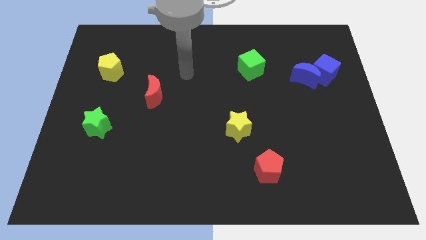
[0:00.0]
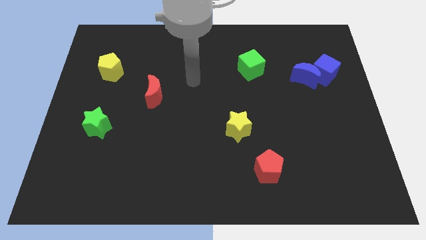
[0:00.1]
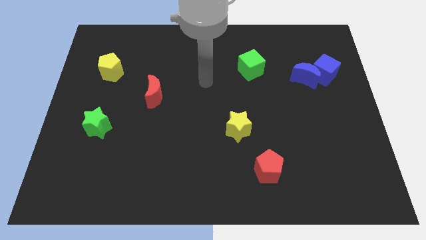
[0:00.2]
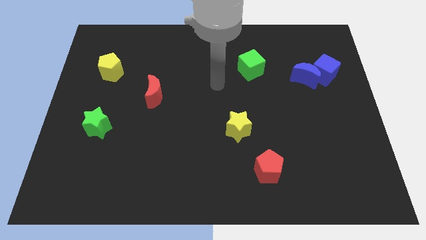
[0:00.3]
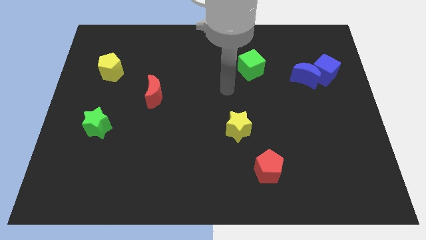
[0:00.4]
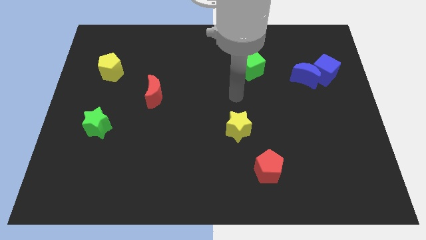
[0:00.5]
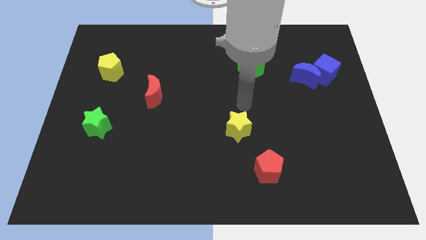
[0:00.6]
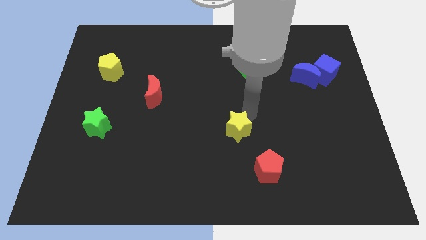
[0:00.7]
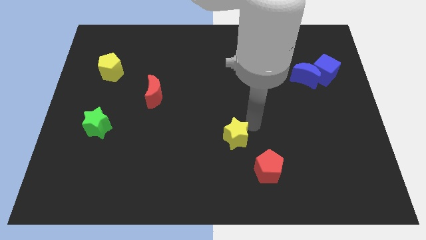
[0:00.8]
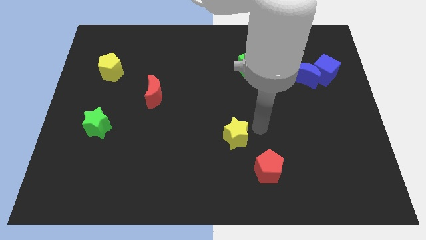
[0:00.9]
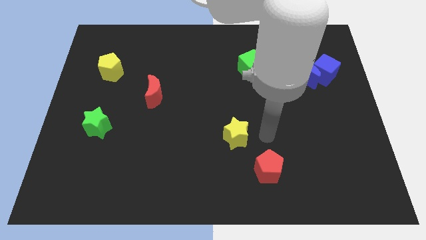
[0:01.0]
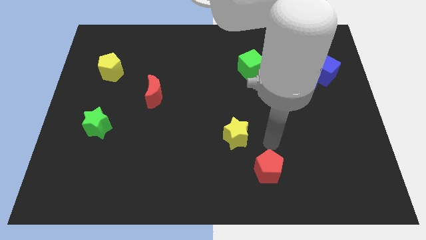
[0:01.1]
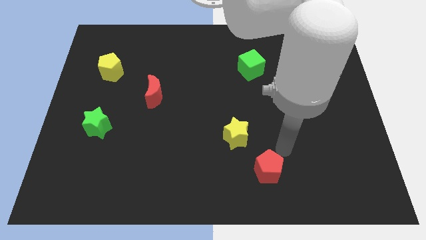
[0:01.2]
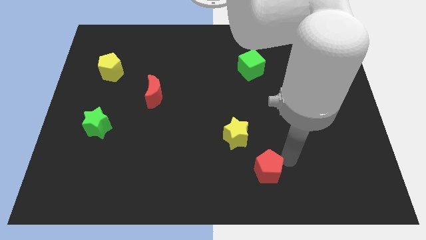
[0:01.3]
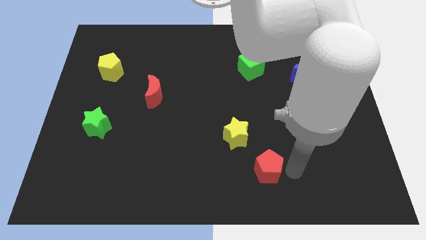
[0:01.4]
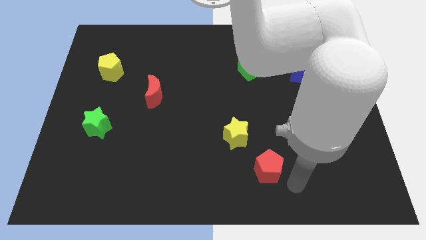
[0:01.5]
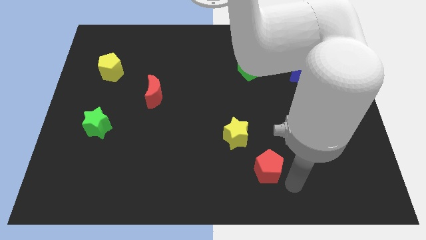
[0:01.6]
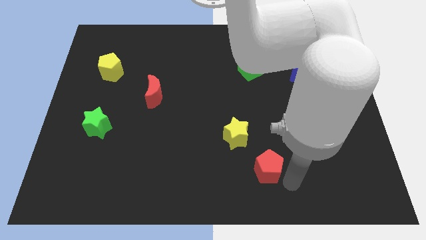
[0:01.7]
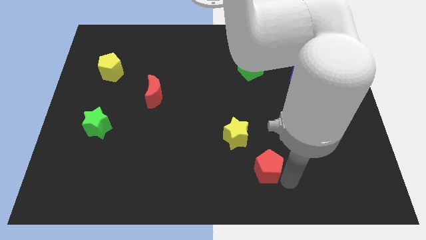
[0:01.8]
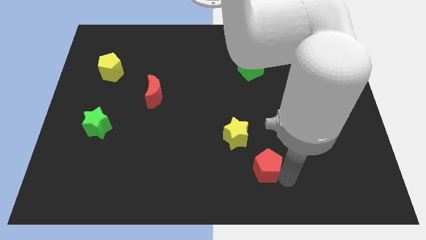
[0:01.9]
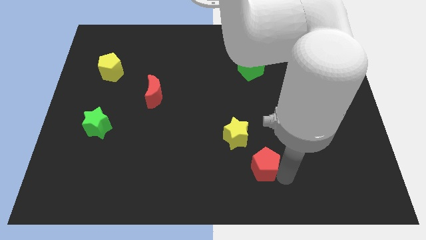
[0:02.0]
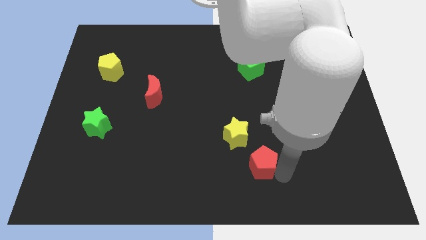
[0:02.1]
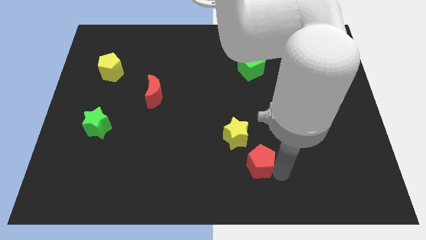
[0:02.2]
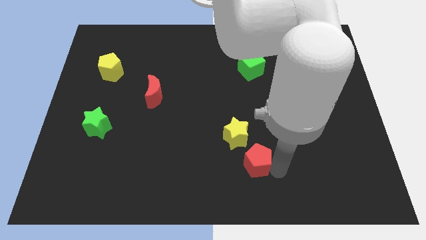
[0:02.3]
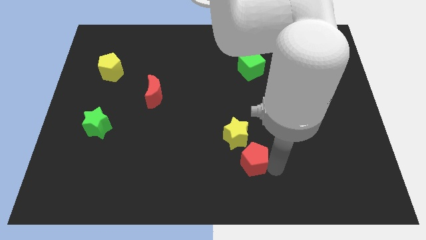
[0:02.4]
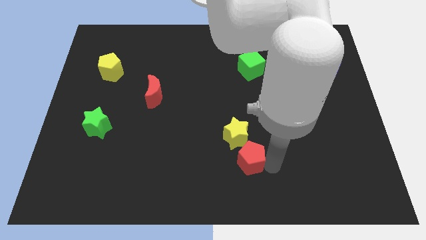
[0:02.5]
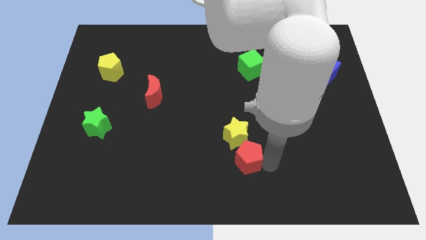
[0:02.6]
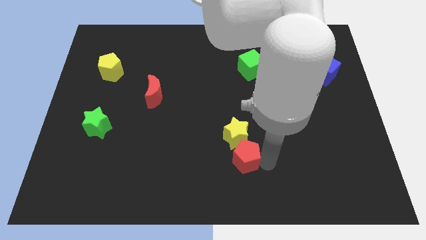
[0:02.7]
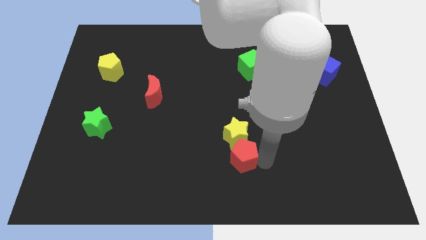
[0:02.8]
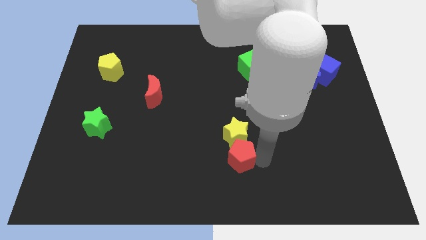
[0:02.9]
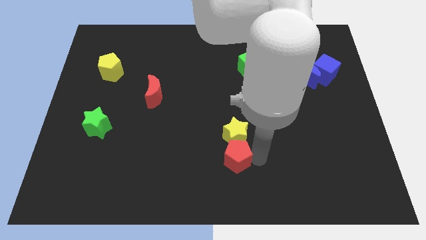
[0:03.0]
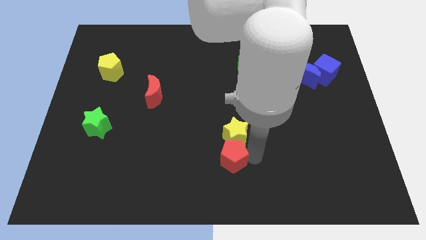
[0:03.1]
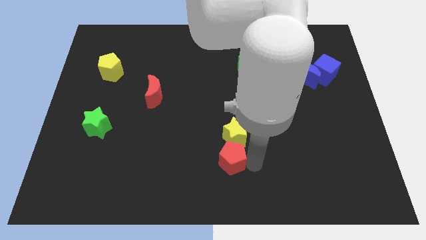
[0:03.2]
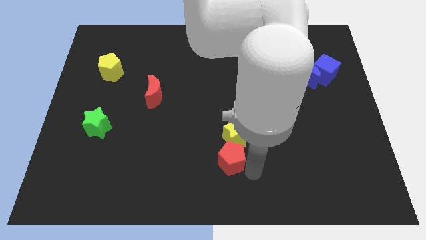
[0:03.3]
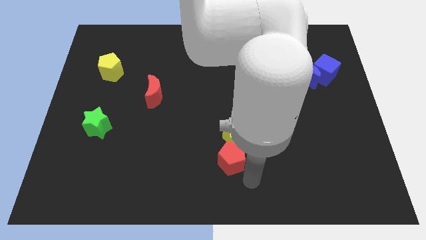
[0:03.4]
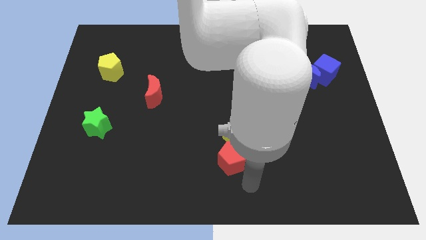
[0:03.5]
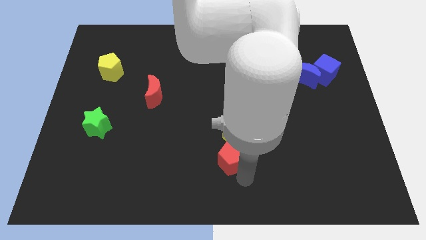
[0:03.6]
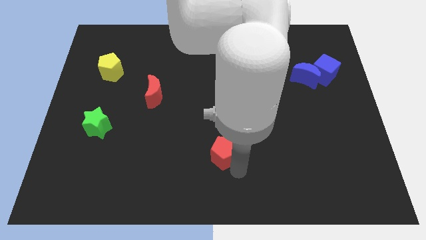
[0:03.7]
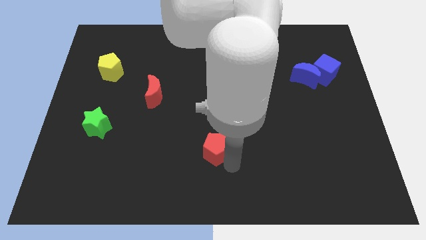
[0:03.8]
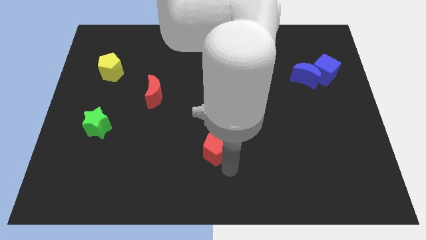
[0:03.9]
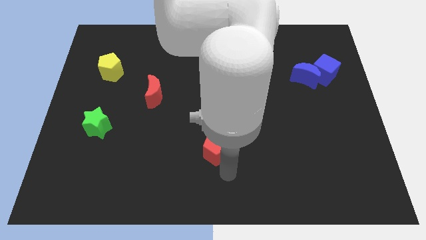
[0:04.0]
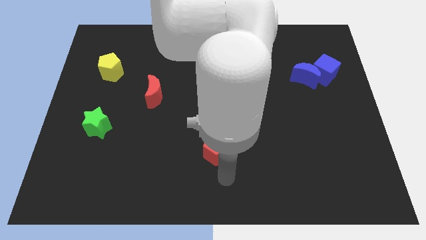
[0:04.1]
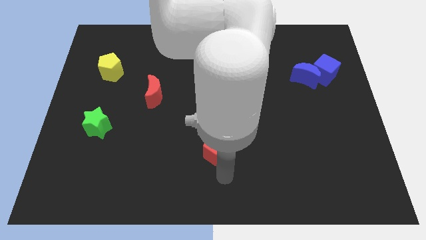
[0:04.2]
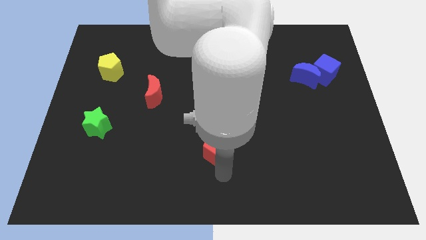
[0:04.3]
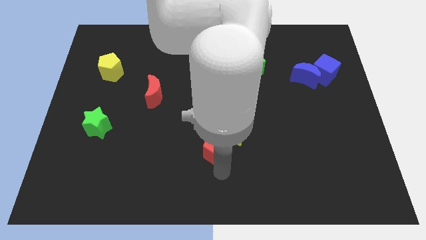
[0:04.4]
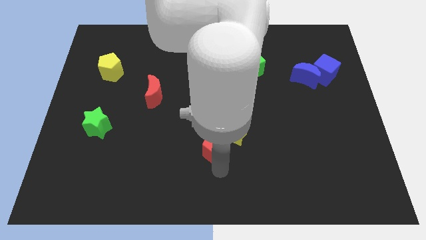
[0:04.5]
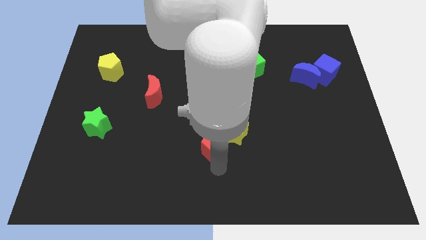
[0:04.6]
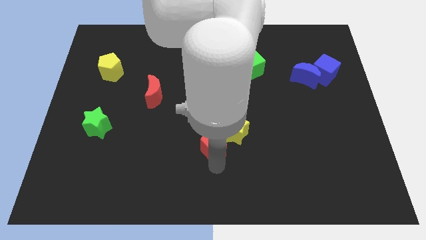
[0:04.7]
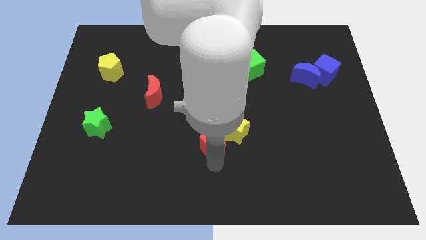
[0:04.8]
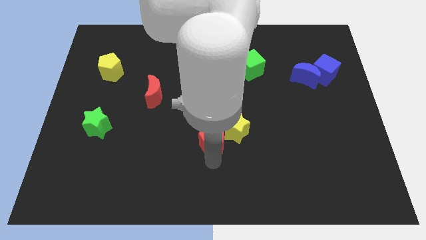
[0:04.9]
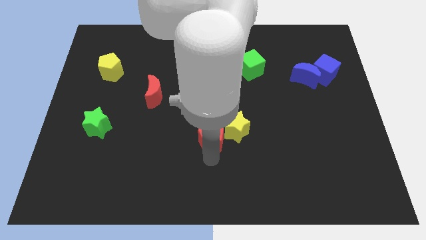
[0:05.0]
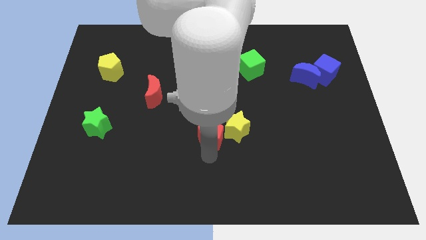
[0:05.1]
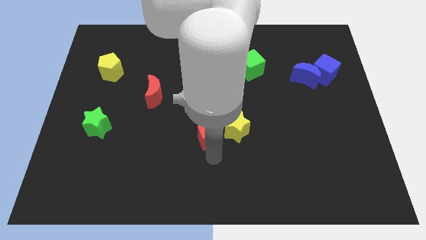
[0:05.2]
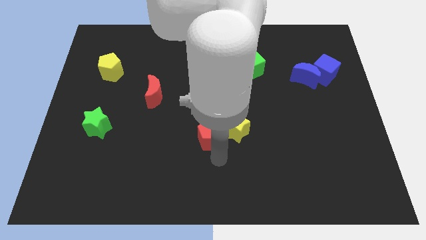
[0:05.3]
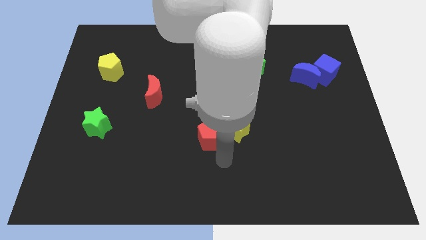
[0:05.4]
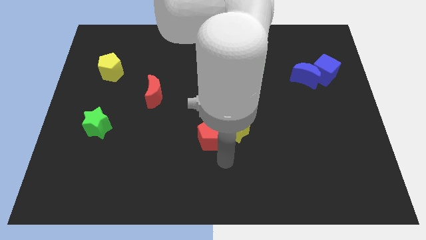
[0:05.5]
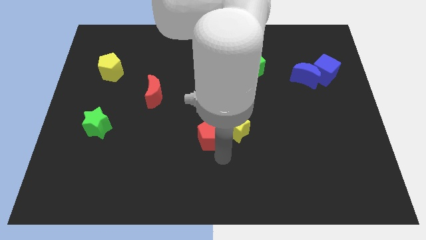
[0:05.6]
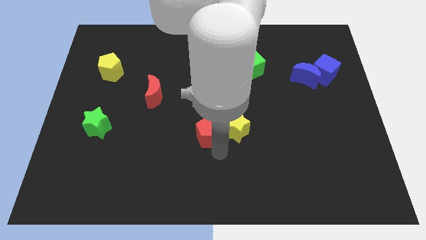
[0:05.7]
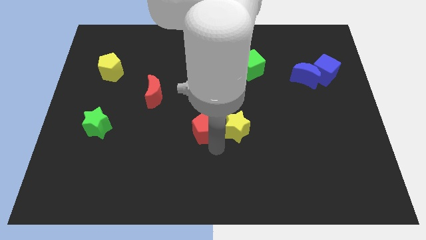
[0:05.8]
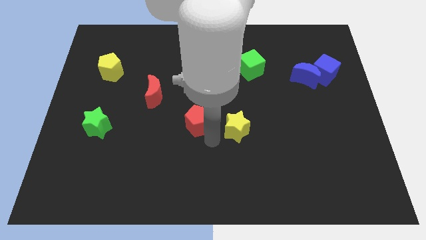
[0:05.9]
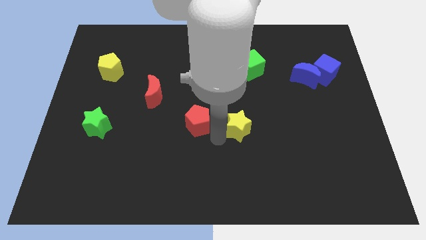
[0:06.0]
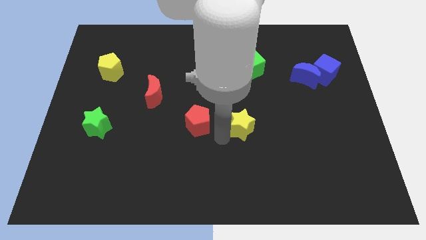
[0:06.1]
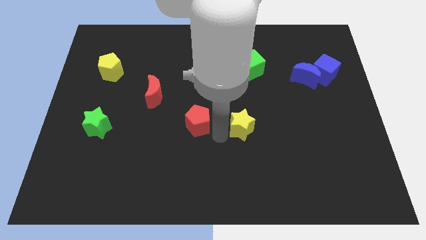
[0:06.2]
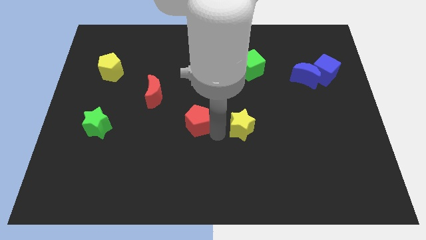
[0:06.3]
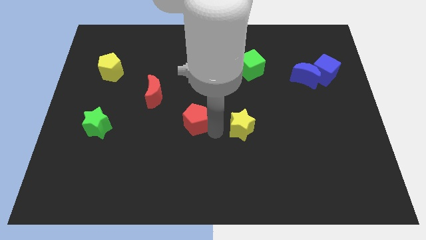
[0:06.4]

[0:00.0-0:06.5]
put the red pentagon diagonally down and to the right of the red moon

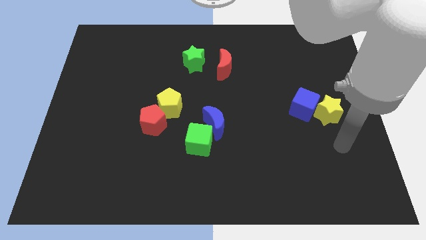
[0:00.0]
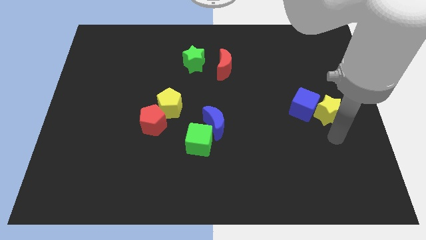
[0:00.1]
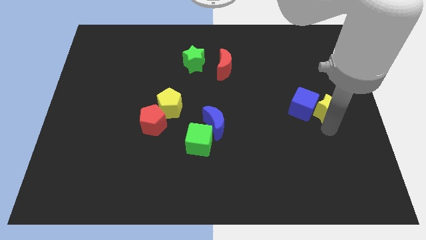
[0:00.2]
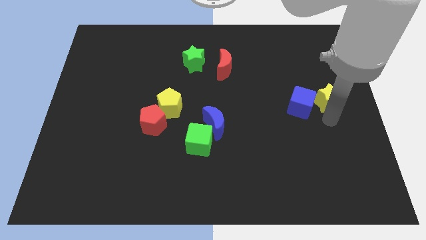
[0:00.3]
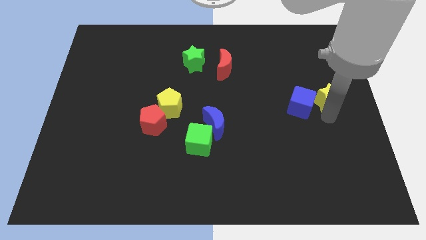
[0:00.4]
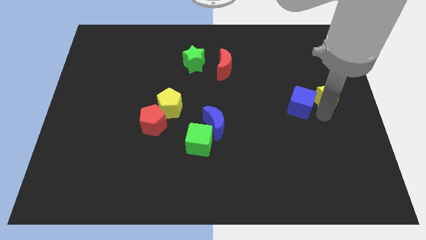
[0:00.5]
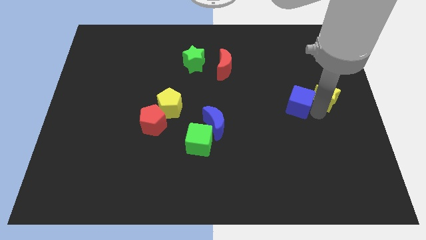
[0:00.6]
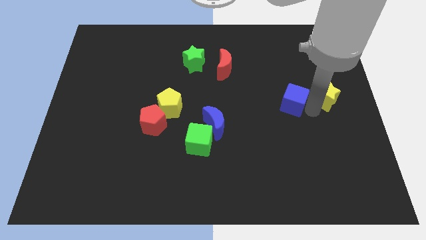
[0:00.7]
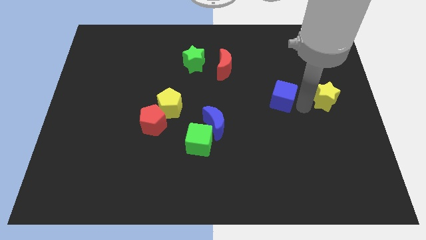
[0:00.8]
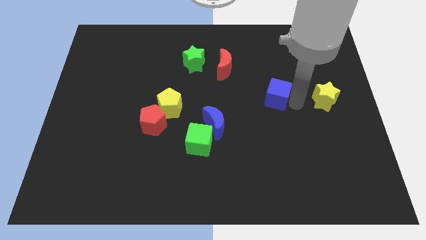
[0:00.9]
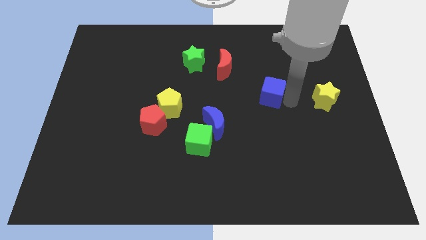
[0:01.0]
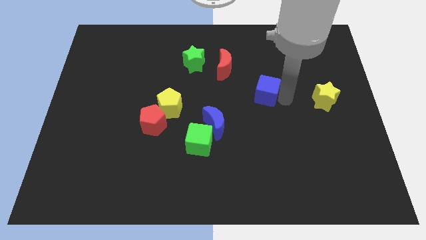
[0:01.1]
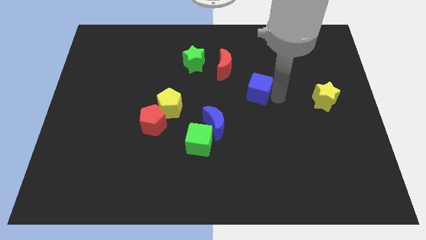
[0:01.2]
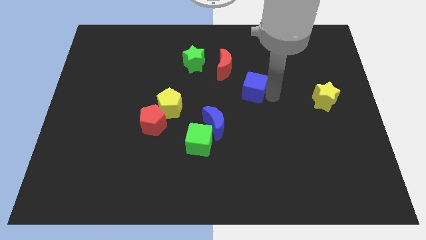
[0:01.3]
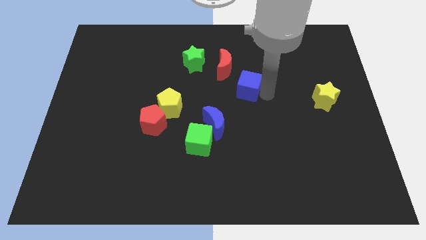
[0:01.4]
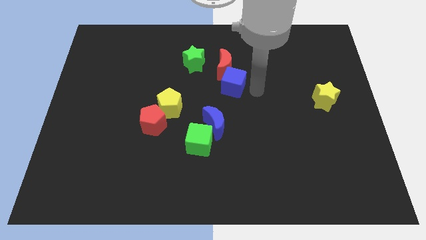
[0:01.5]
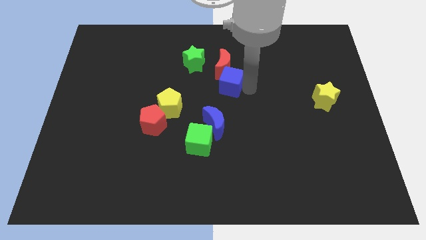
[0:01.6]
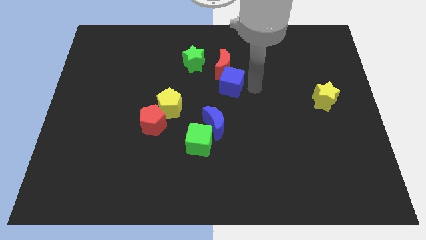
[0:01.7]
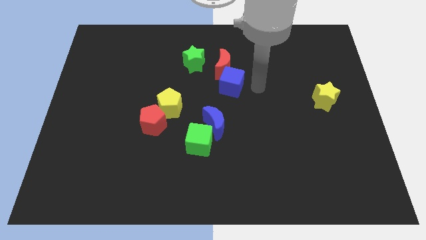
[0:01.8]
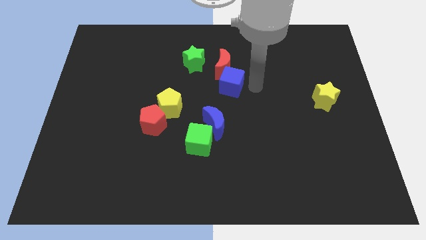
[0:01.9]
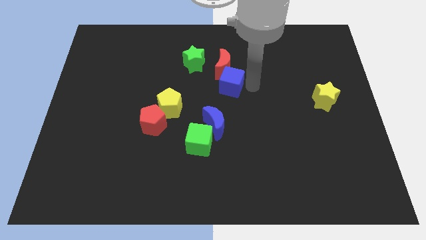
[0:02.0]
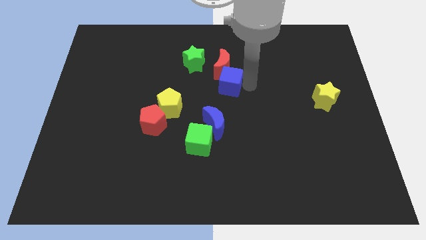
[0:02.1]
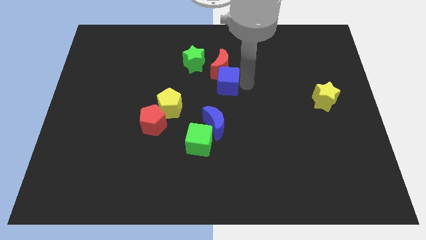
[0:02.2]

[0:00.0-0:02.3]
move the blue cube to the bottom left of the red moon
